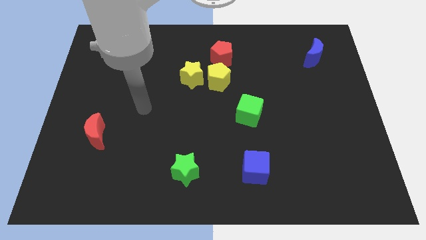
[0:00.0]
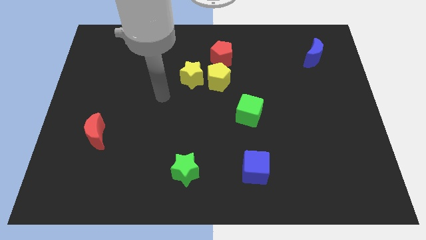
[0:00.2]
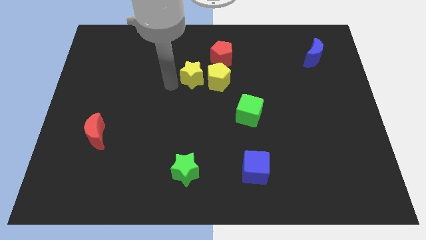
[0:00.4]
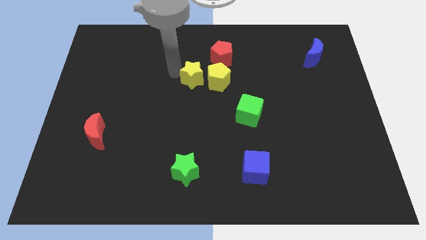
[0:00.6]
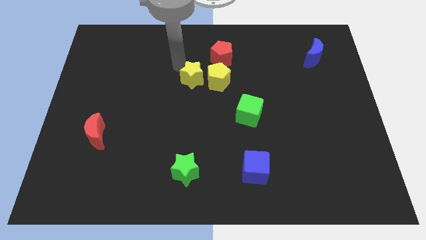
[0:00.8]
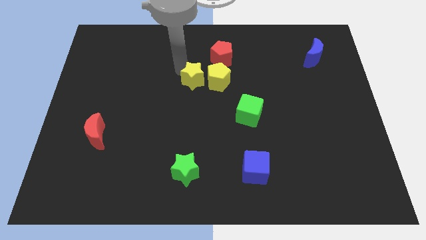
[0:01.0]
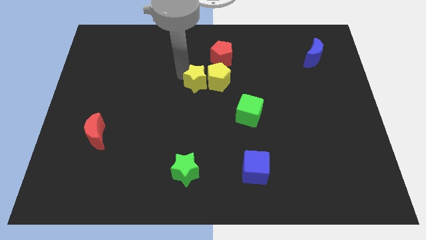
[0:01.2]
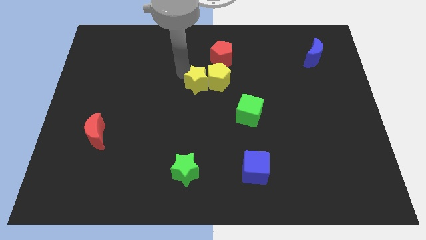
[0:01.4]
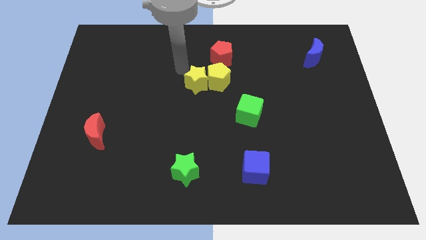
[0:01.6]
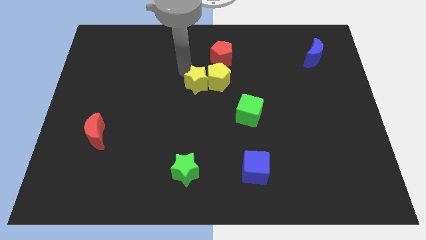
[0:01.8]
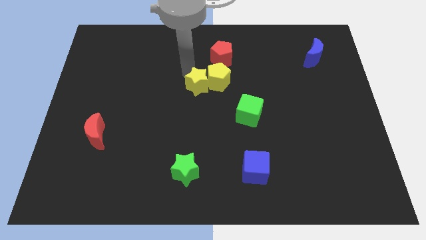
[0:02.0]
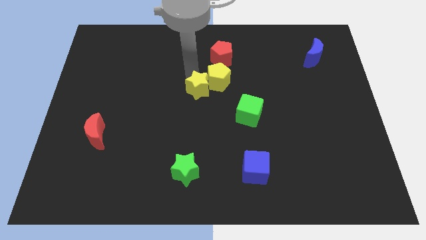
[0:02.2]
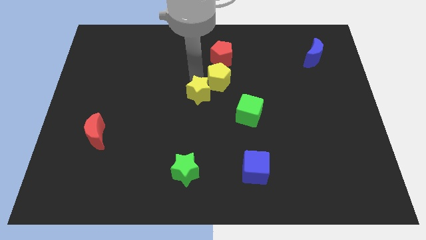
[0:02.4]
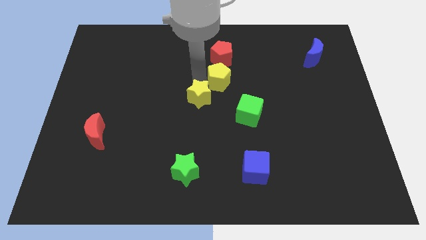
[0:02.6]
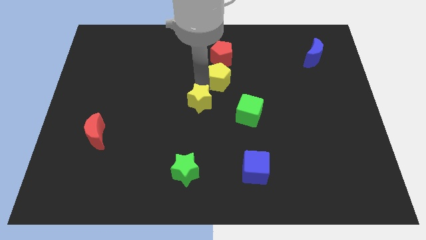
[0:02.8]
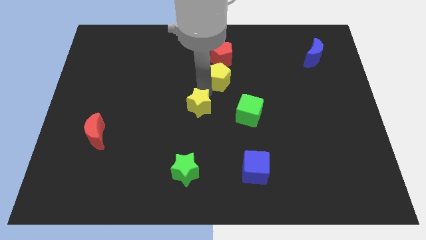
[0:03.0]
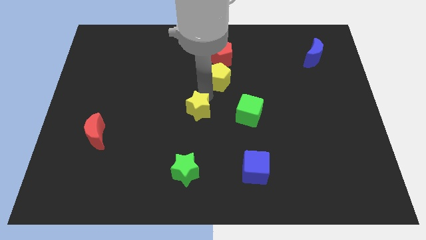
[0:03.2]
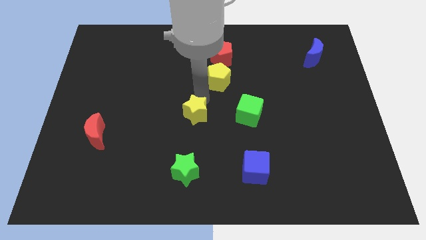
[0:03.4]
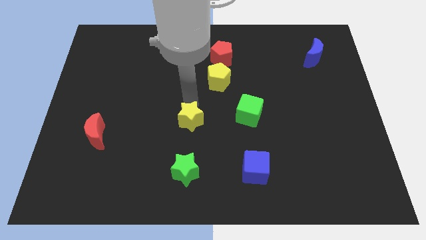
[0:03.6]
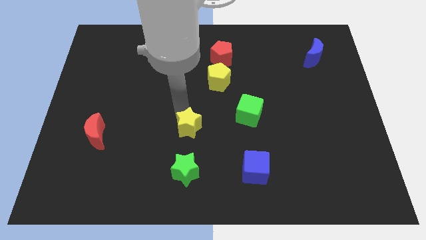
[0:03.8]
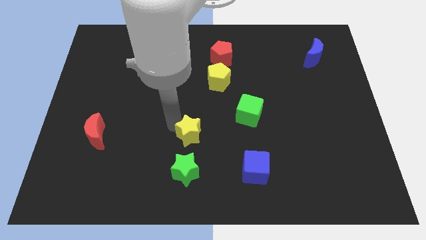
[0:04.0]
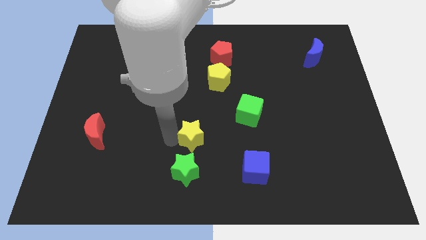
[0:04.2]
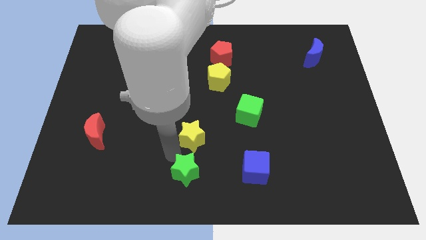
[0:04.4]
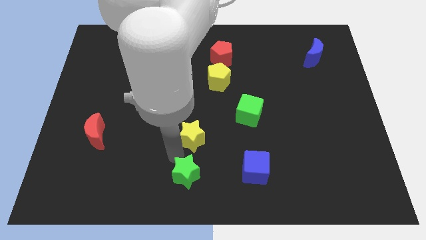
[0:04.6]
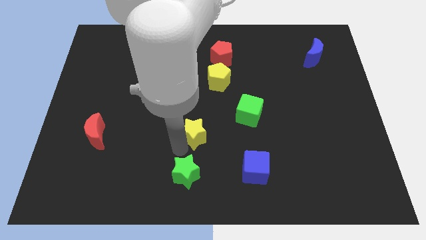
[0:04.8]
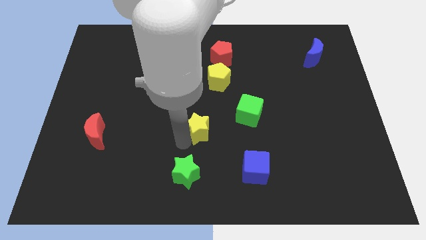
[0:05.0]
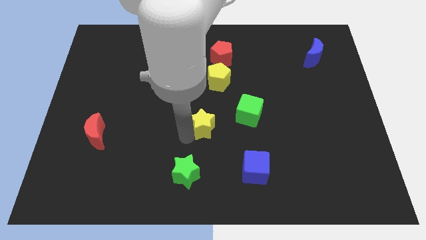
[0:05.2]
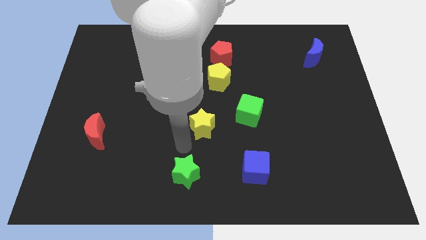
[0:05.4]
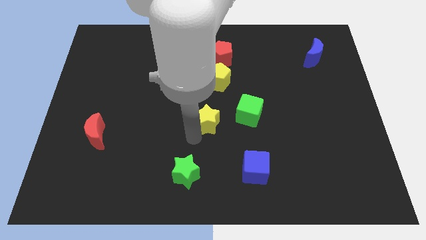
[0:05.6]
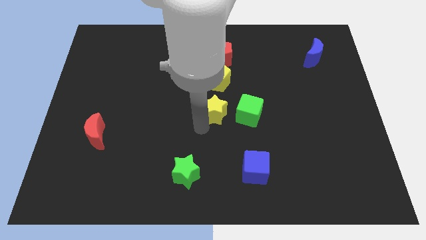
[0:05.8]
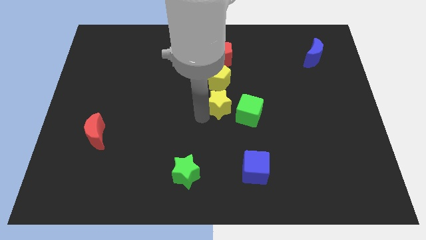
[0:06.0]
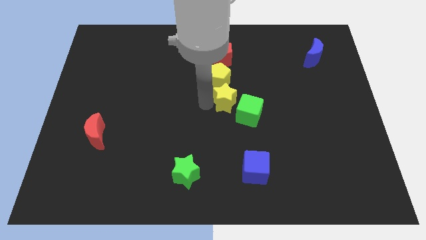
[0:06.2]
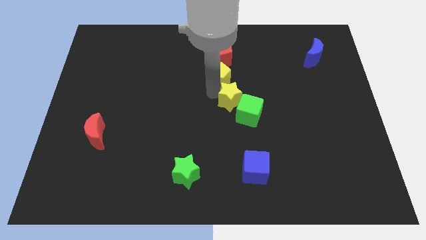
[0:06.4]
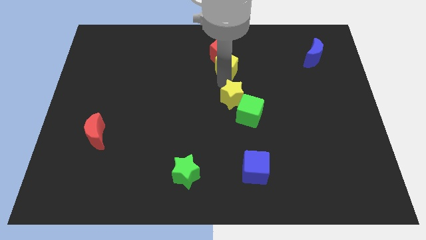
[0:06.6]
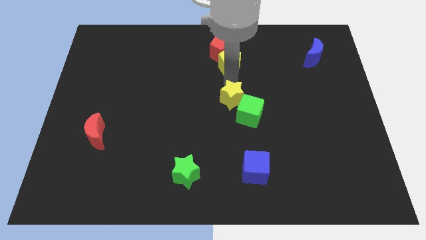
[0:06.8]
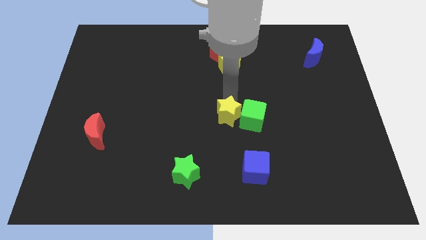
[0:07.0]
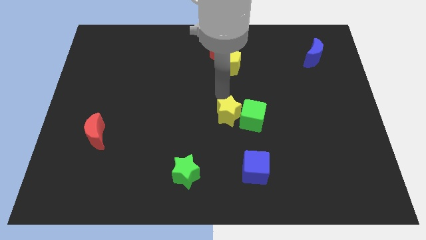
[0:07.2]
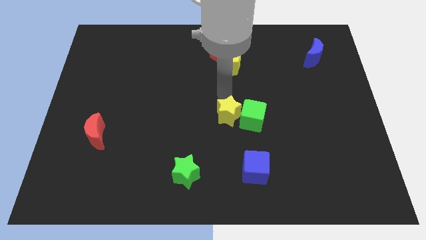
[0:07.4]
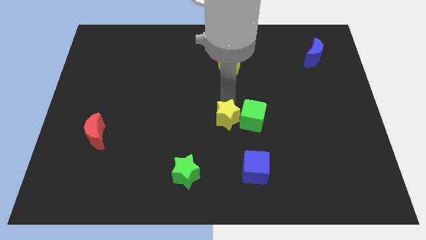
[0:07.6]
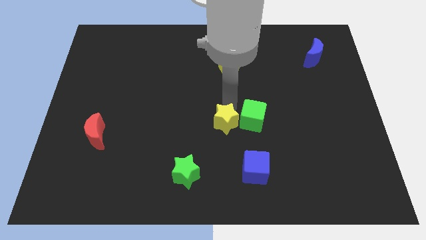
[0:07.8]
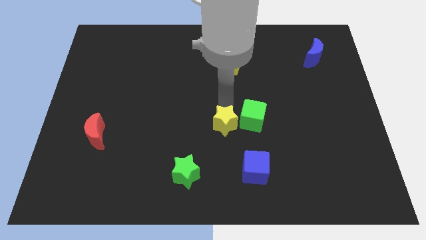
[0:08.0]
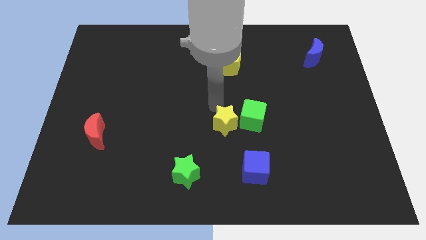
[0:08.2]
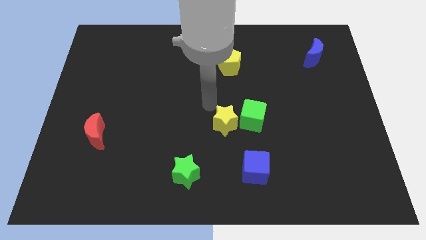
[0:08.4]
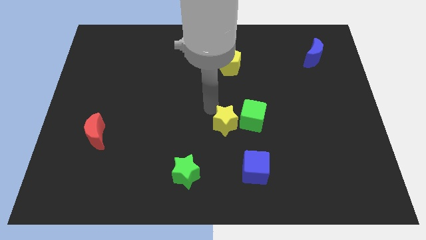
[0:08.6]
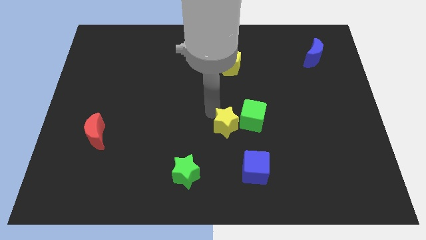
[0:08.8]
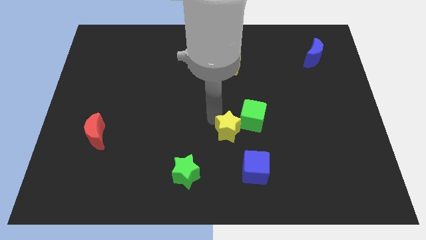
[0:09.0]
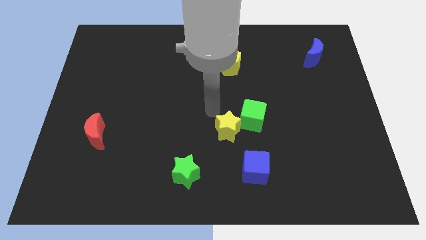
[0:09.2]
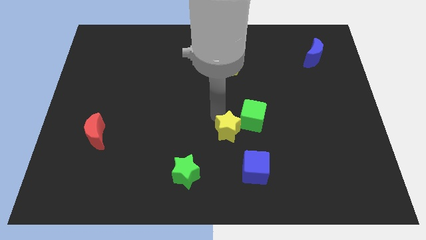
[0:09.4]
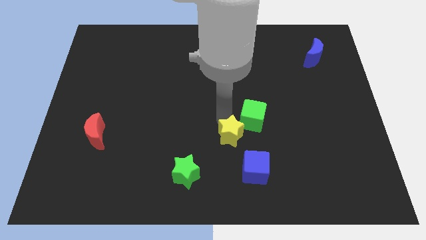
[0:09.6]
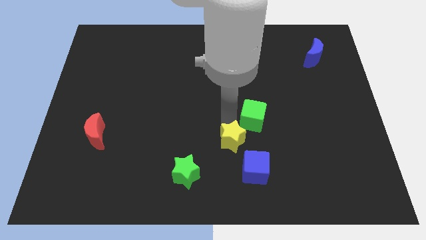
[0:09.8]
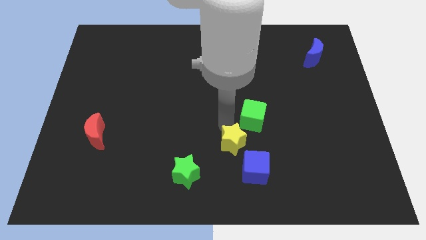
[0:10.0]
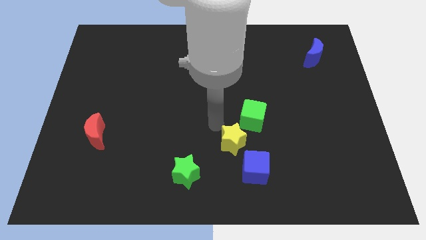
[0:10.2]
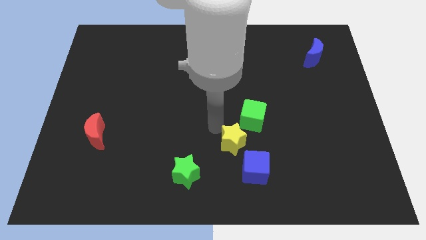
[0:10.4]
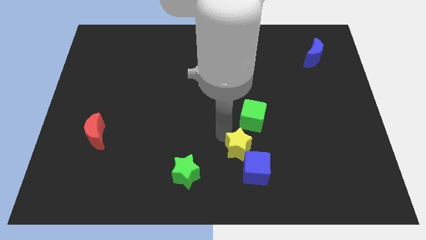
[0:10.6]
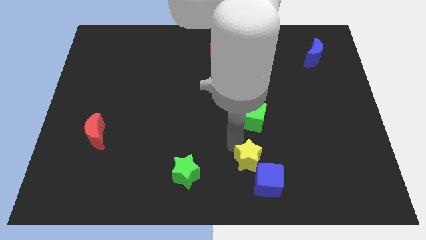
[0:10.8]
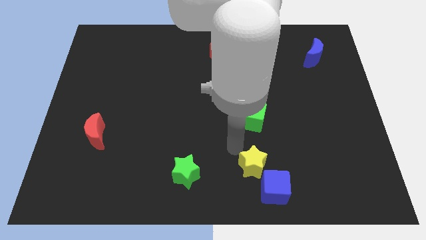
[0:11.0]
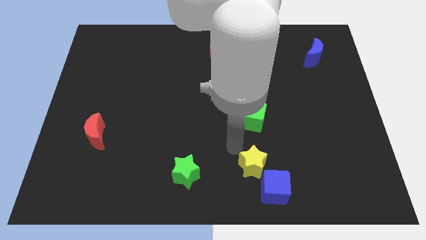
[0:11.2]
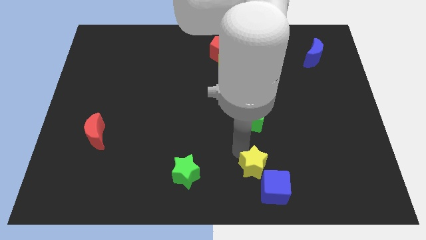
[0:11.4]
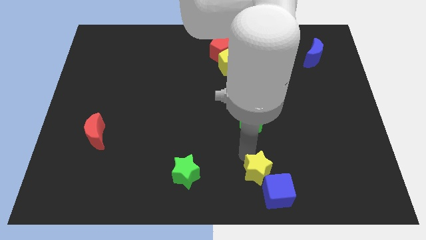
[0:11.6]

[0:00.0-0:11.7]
move the yellow star next to the blue cube

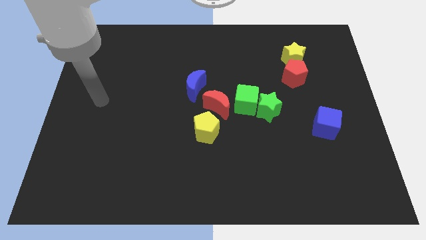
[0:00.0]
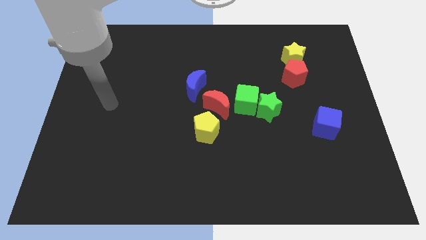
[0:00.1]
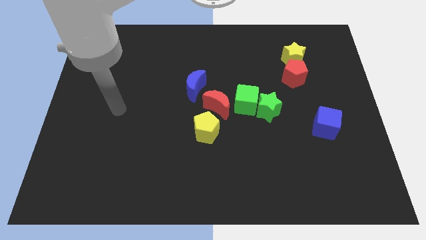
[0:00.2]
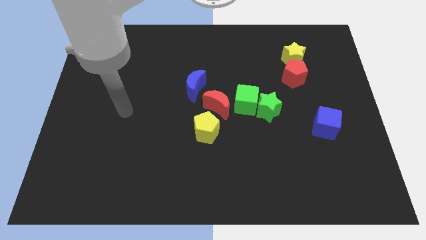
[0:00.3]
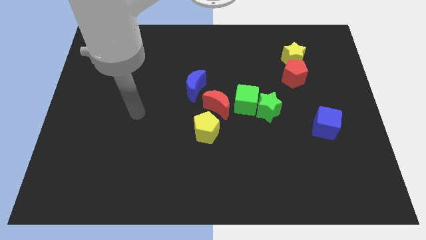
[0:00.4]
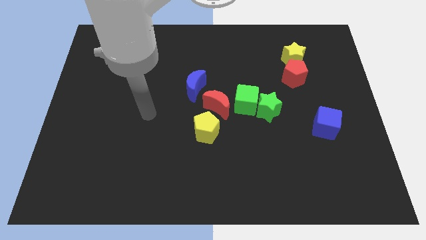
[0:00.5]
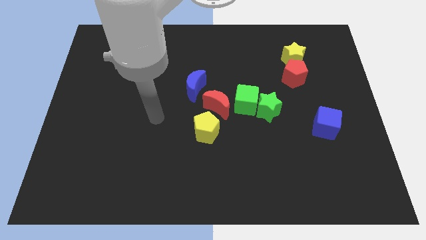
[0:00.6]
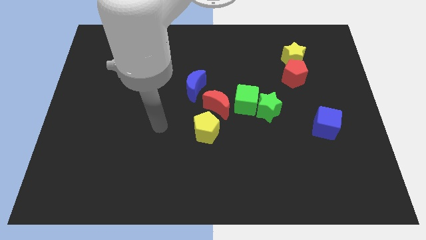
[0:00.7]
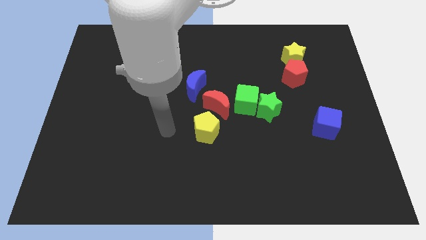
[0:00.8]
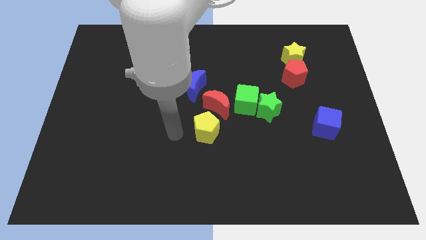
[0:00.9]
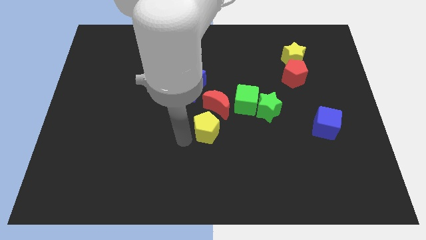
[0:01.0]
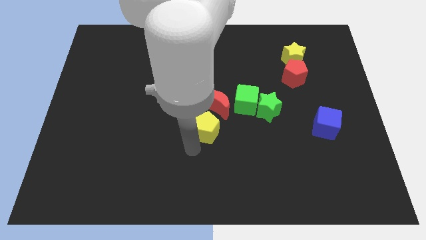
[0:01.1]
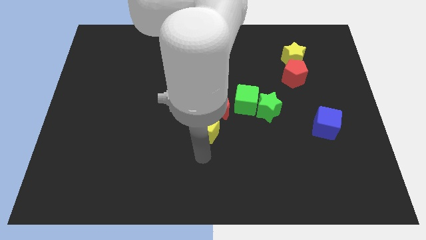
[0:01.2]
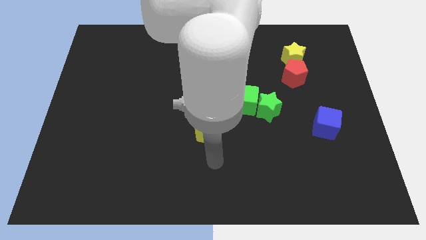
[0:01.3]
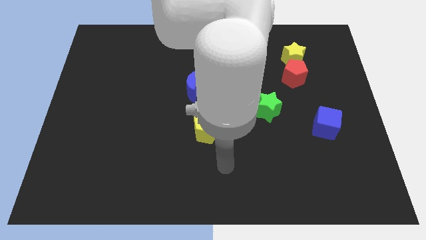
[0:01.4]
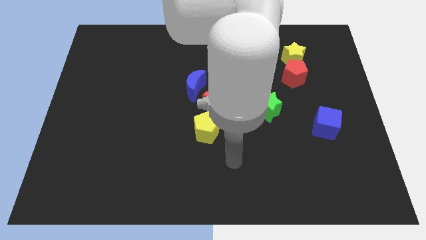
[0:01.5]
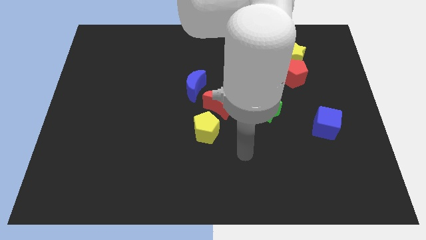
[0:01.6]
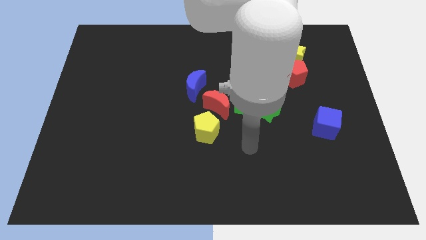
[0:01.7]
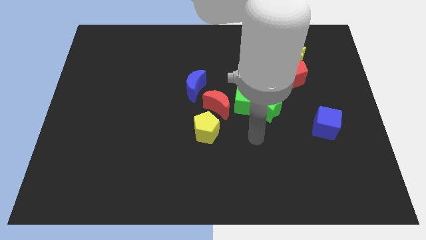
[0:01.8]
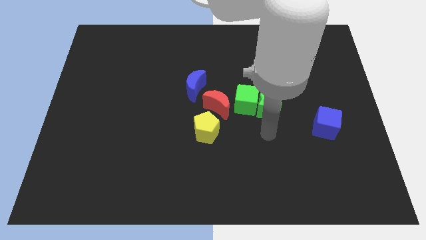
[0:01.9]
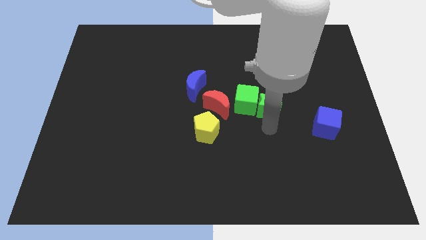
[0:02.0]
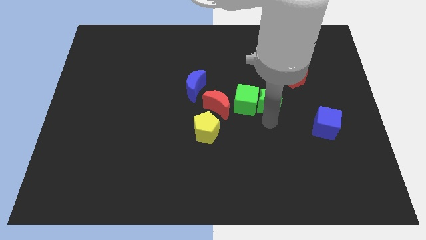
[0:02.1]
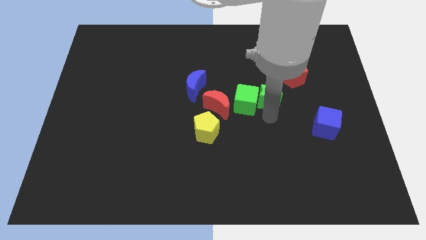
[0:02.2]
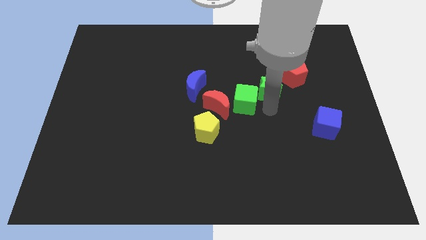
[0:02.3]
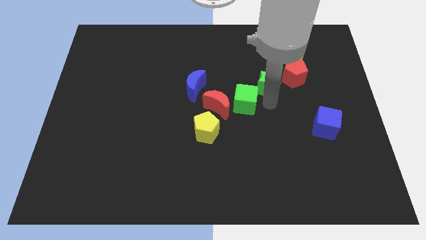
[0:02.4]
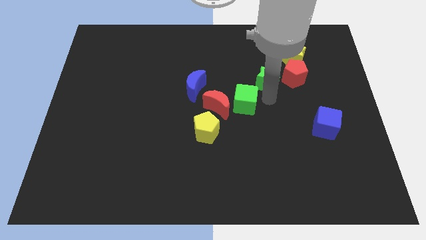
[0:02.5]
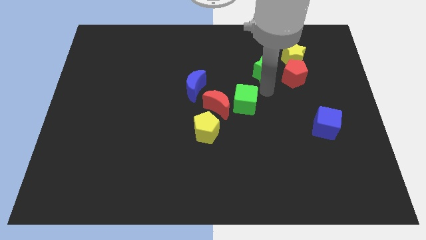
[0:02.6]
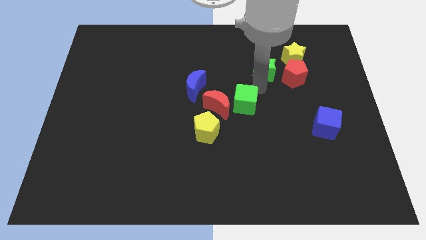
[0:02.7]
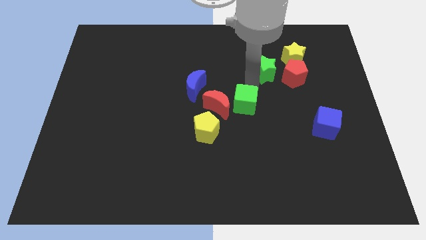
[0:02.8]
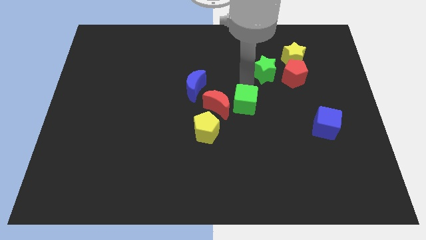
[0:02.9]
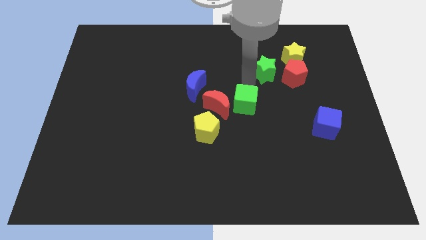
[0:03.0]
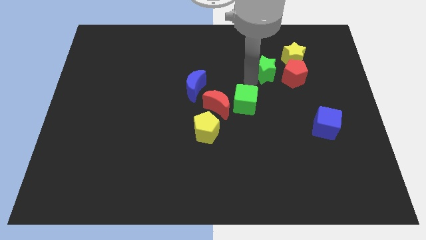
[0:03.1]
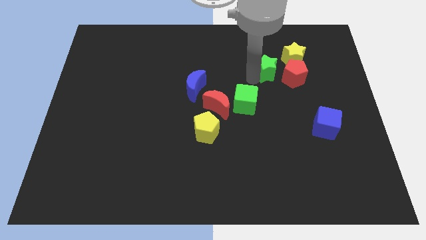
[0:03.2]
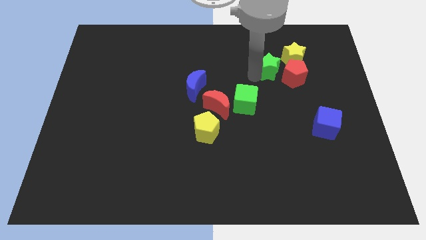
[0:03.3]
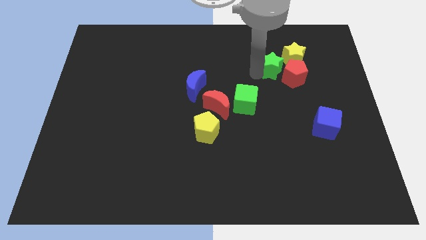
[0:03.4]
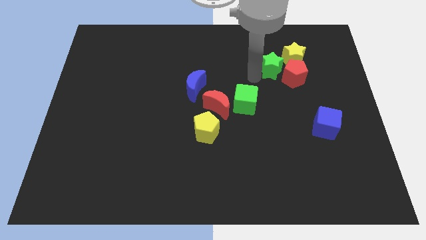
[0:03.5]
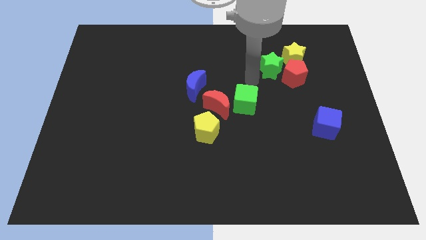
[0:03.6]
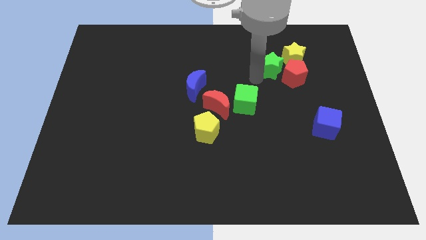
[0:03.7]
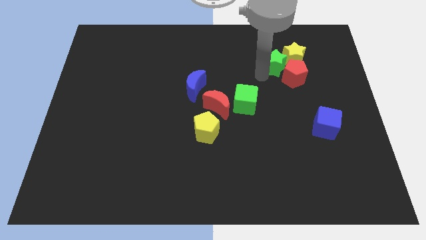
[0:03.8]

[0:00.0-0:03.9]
put the green star next to the yellow star
